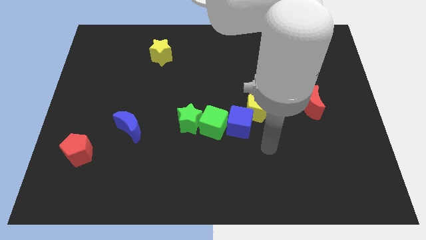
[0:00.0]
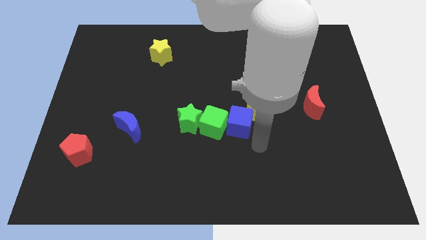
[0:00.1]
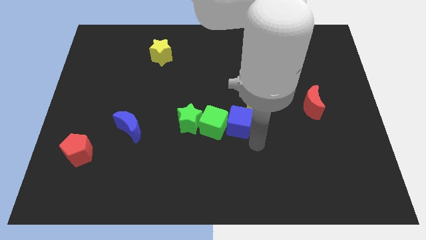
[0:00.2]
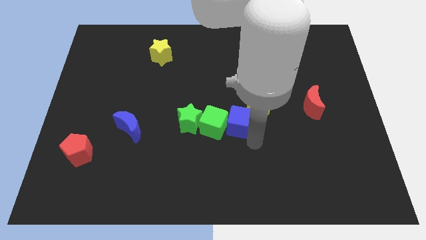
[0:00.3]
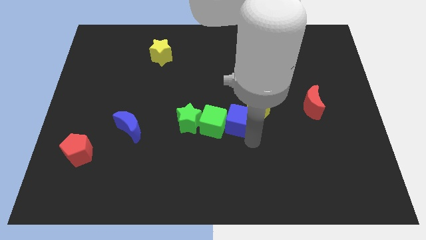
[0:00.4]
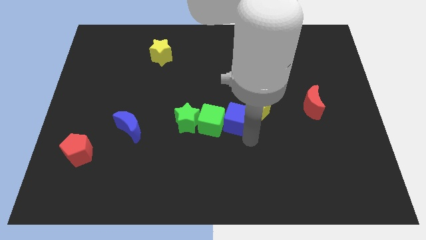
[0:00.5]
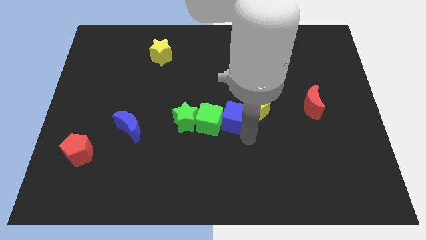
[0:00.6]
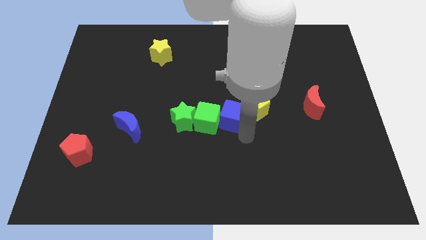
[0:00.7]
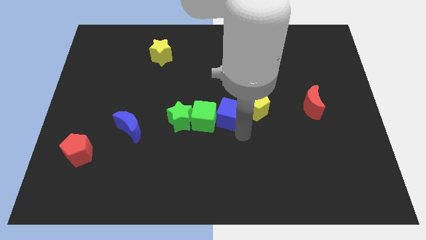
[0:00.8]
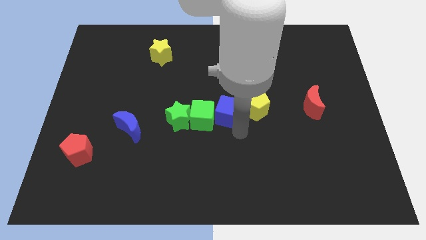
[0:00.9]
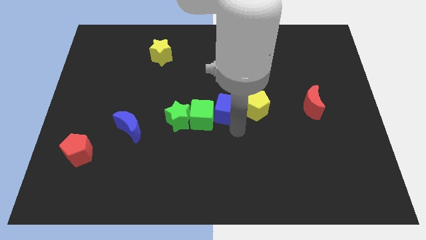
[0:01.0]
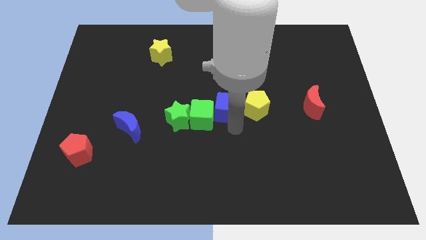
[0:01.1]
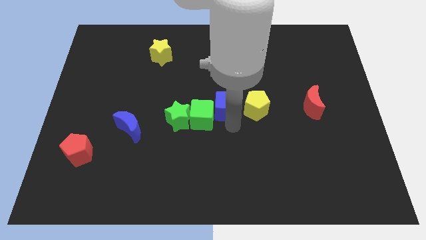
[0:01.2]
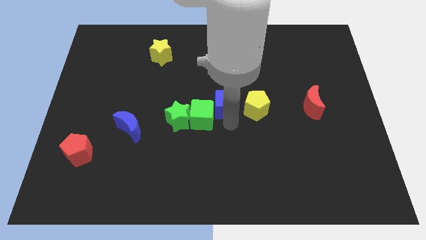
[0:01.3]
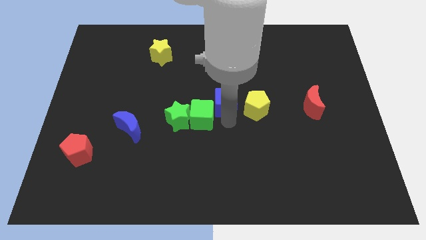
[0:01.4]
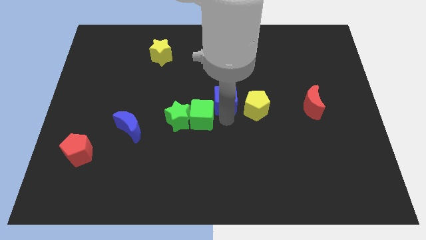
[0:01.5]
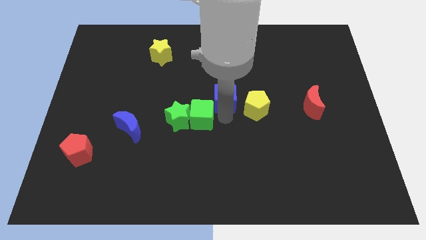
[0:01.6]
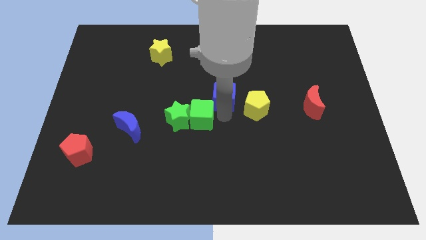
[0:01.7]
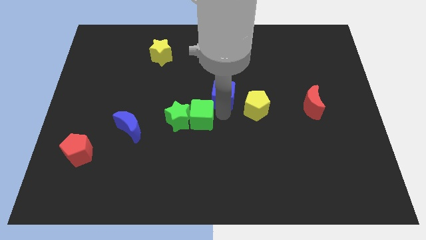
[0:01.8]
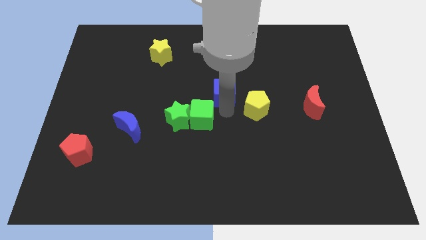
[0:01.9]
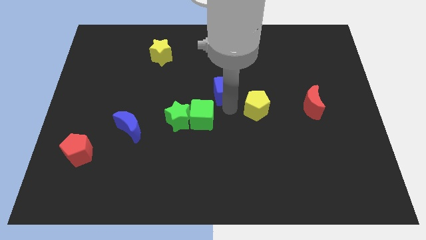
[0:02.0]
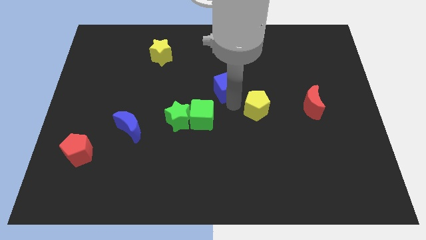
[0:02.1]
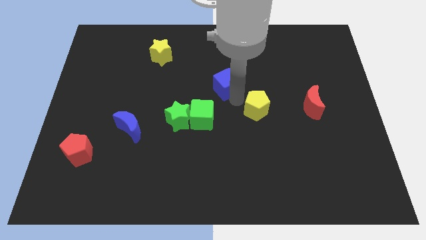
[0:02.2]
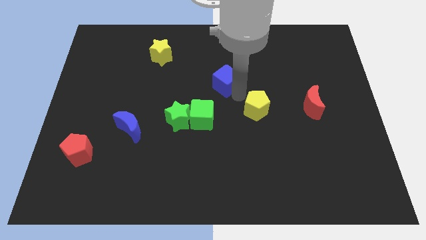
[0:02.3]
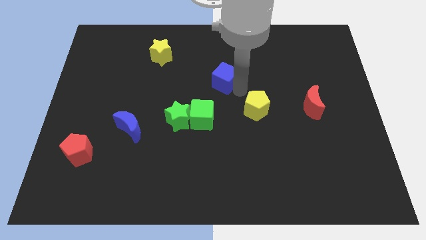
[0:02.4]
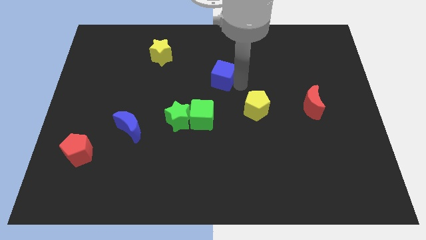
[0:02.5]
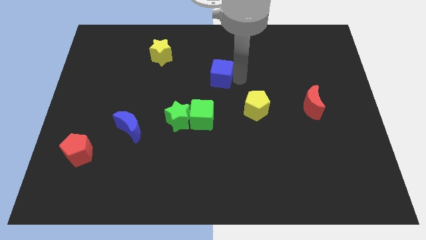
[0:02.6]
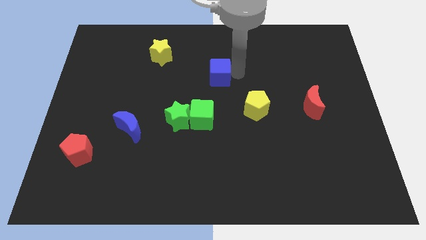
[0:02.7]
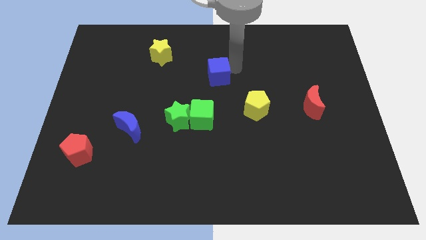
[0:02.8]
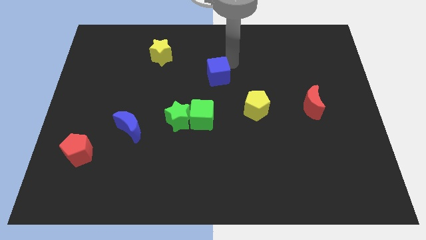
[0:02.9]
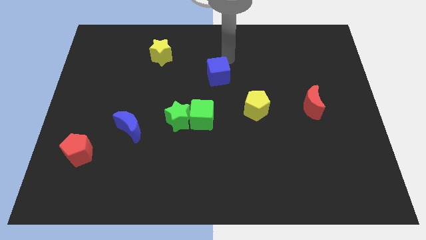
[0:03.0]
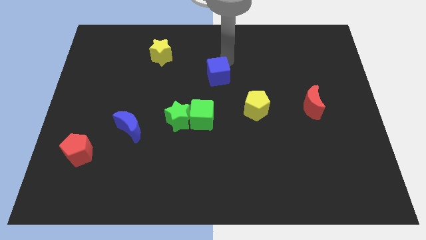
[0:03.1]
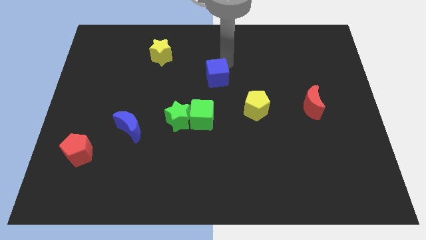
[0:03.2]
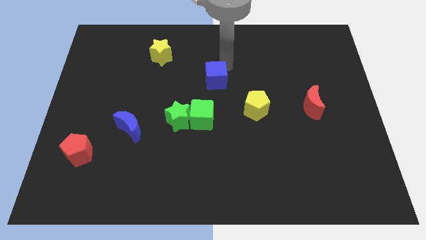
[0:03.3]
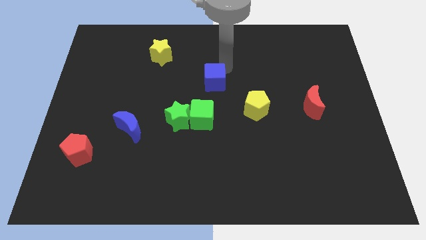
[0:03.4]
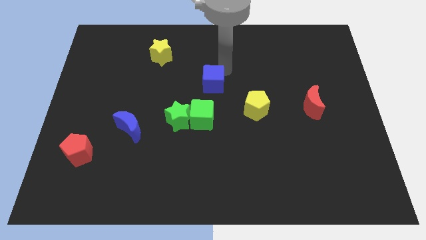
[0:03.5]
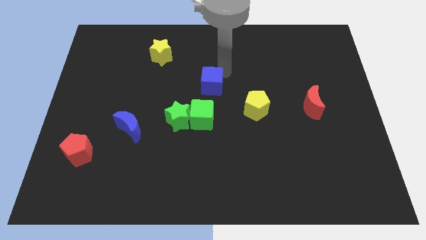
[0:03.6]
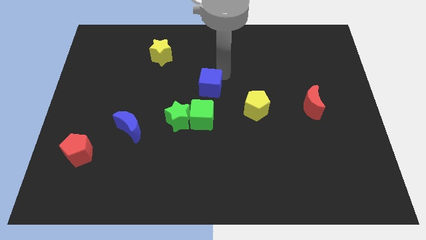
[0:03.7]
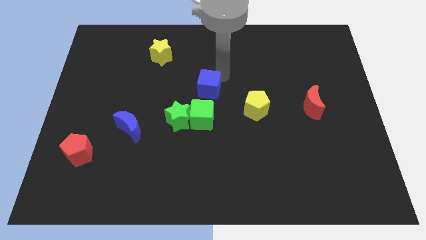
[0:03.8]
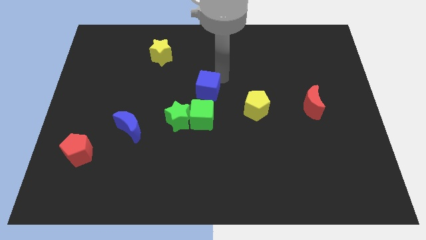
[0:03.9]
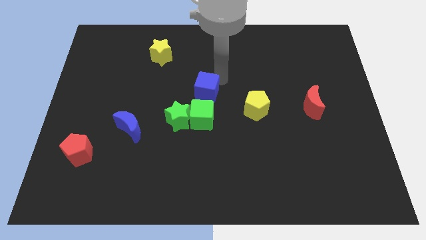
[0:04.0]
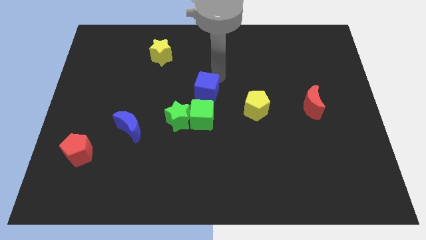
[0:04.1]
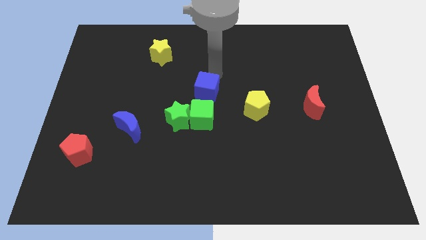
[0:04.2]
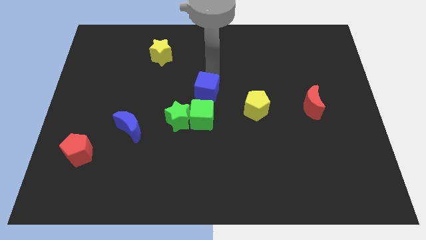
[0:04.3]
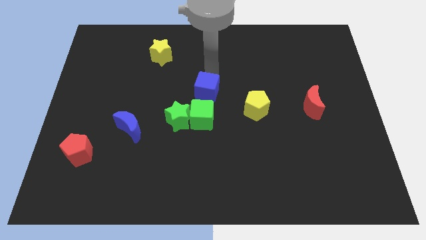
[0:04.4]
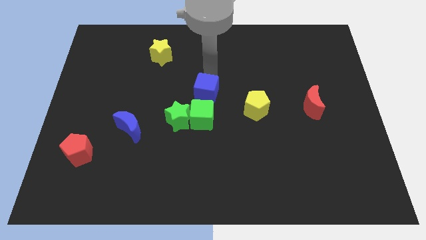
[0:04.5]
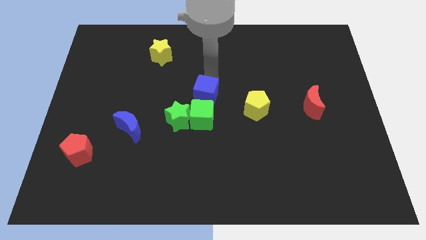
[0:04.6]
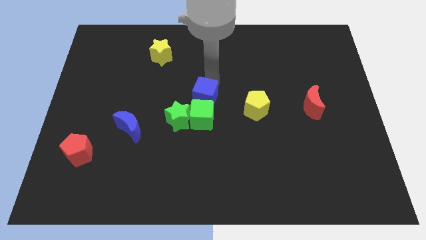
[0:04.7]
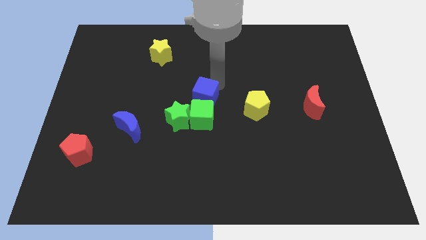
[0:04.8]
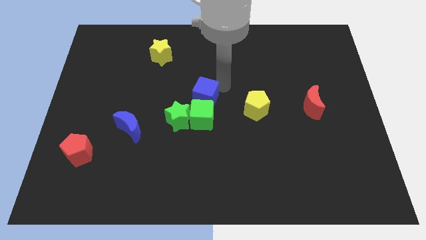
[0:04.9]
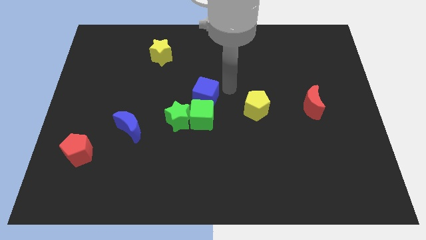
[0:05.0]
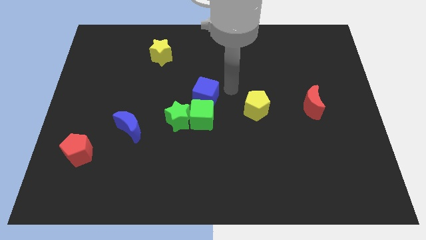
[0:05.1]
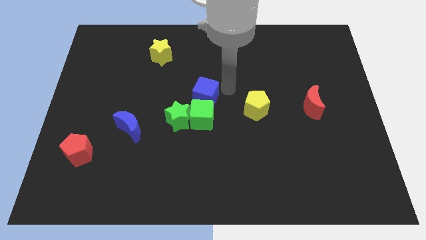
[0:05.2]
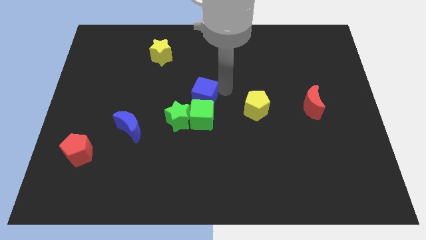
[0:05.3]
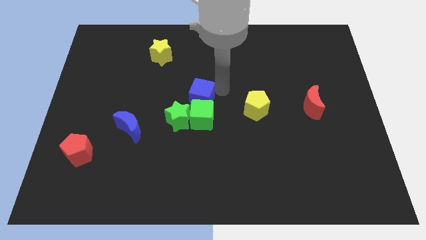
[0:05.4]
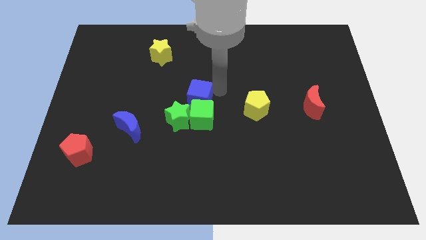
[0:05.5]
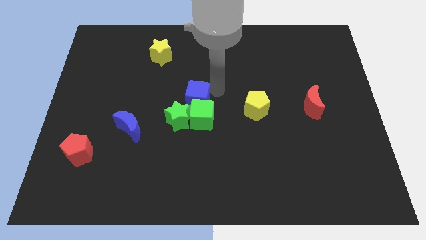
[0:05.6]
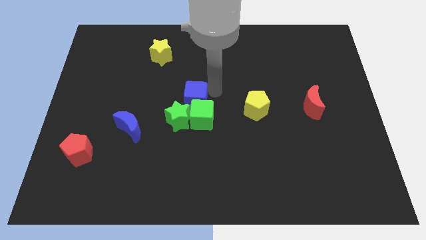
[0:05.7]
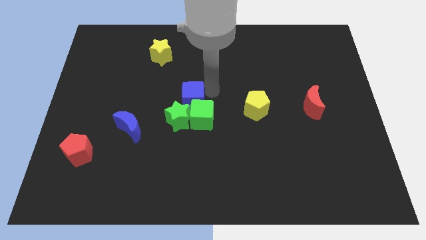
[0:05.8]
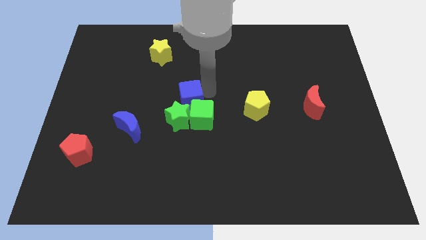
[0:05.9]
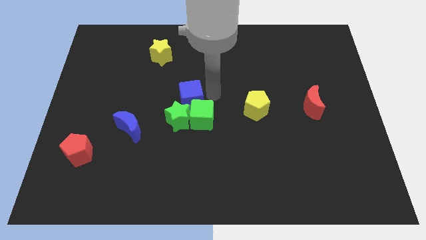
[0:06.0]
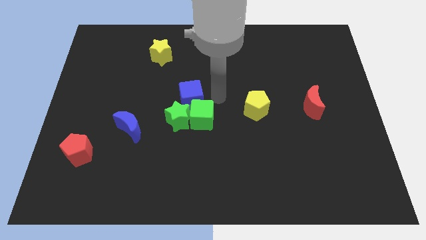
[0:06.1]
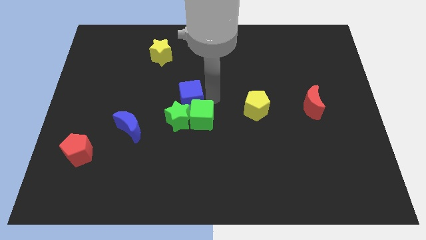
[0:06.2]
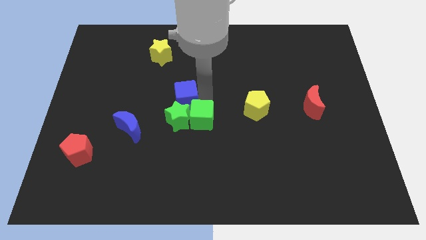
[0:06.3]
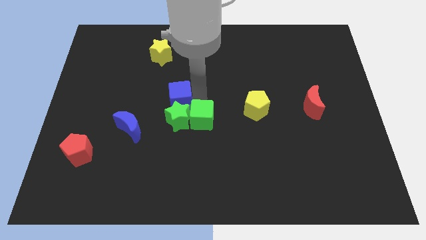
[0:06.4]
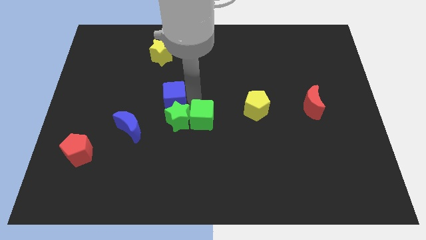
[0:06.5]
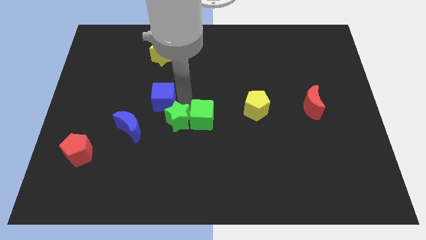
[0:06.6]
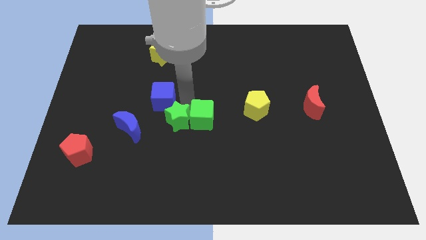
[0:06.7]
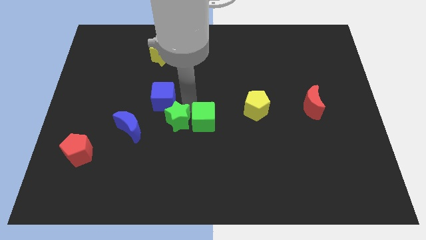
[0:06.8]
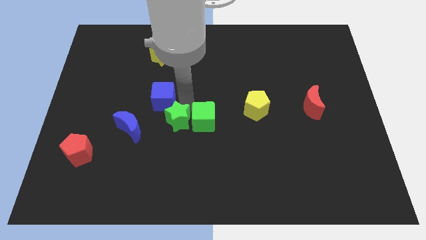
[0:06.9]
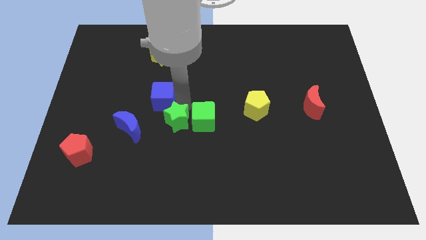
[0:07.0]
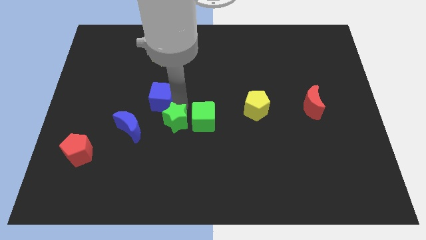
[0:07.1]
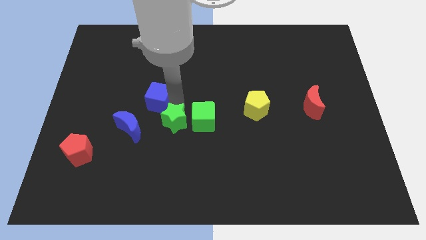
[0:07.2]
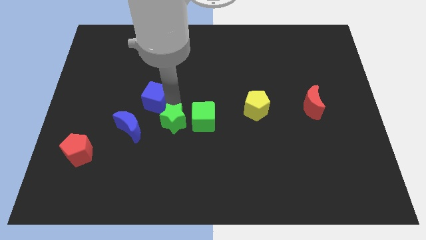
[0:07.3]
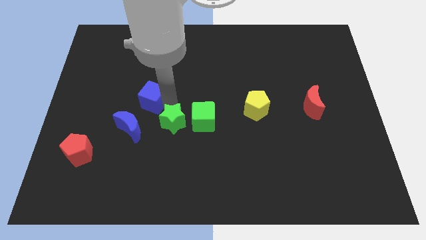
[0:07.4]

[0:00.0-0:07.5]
put the blue cube above the blue moon
